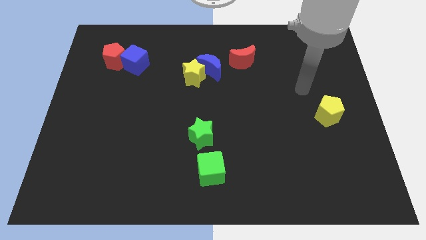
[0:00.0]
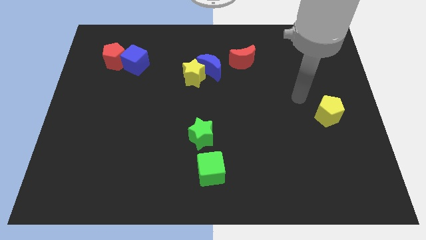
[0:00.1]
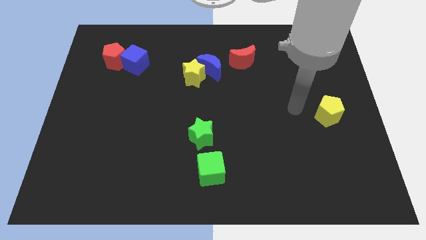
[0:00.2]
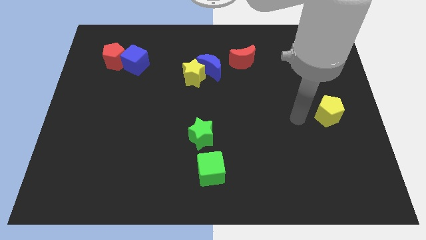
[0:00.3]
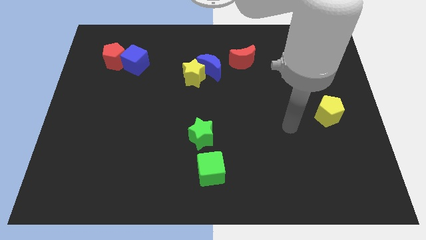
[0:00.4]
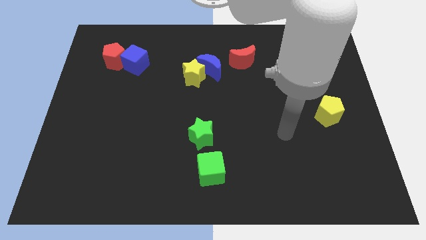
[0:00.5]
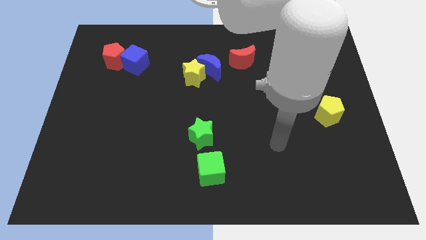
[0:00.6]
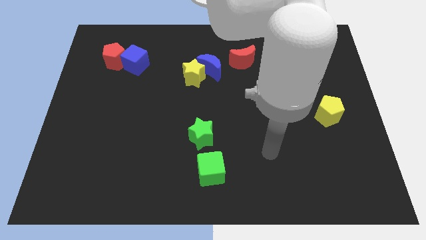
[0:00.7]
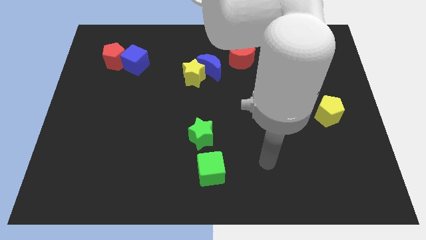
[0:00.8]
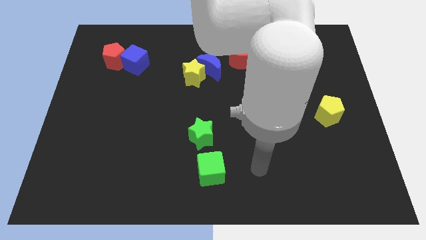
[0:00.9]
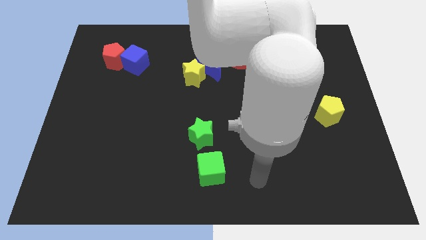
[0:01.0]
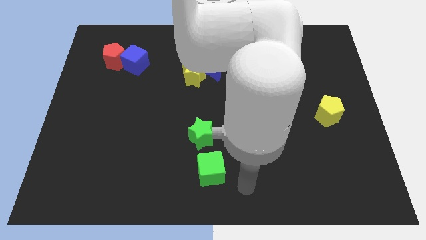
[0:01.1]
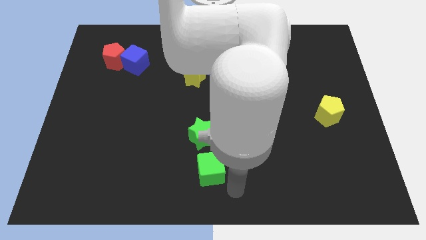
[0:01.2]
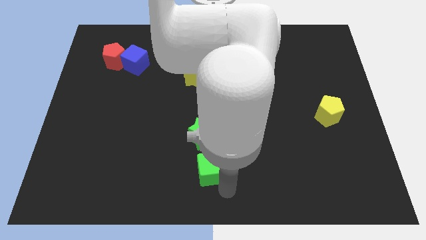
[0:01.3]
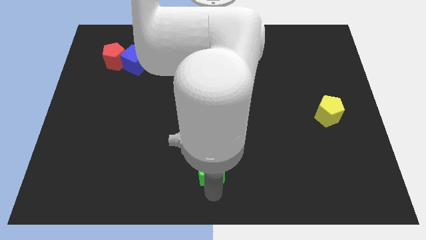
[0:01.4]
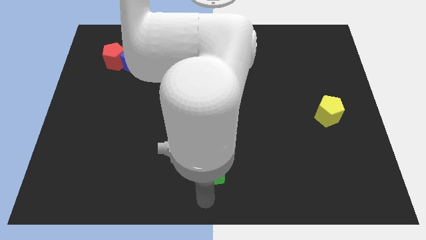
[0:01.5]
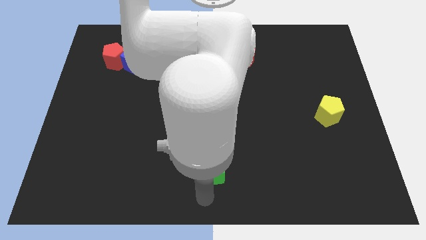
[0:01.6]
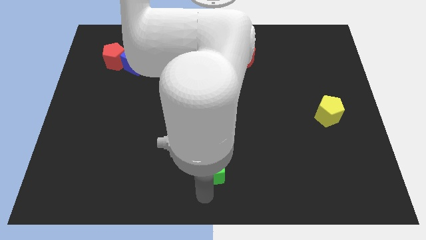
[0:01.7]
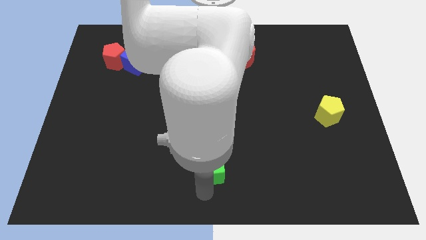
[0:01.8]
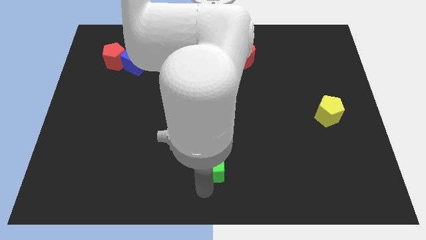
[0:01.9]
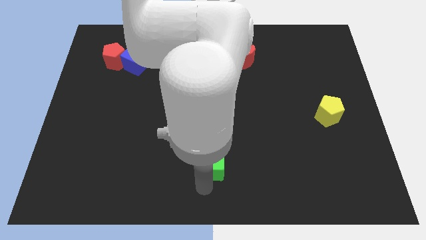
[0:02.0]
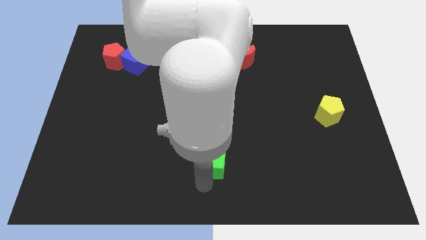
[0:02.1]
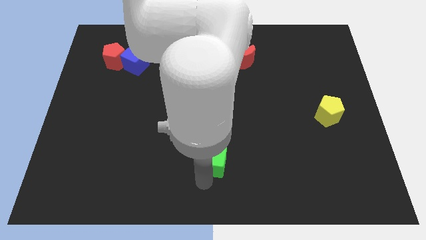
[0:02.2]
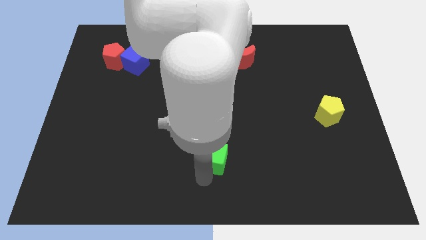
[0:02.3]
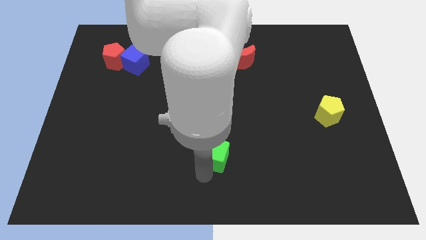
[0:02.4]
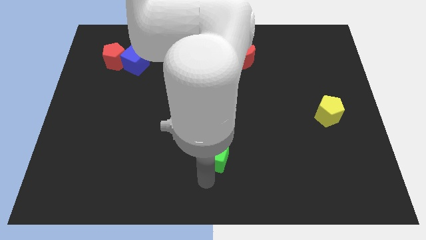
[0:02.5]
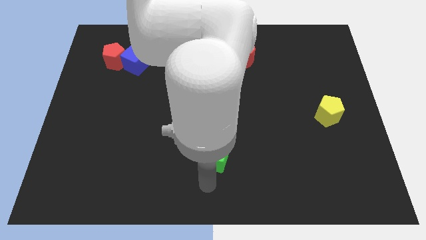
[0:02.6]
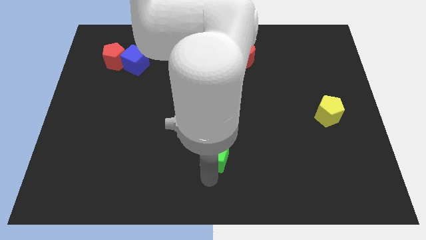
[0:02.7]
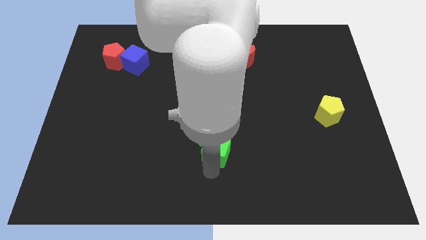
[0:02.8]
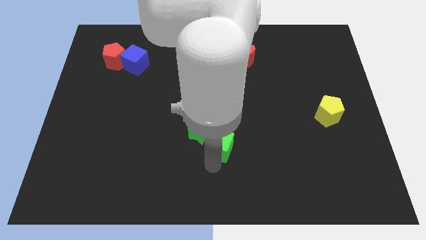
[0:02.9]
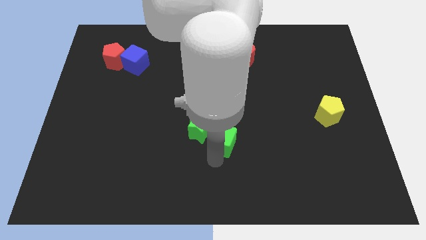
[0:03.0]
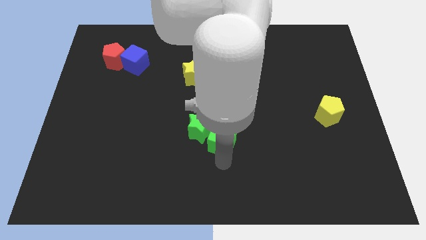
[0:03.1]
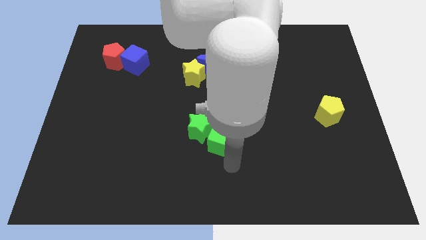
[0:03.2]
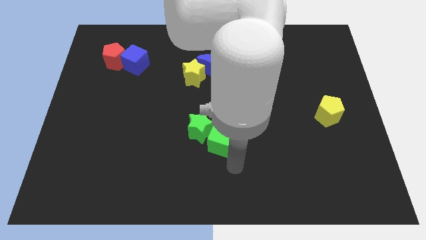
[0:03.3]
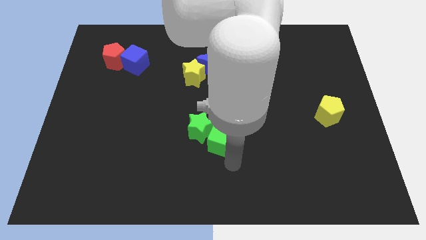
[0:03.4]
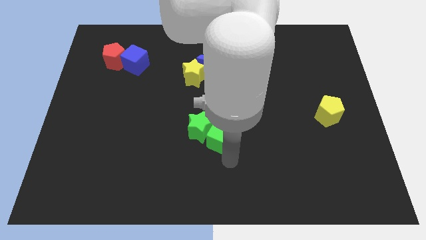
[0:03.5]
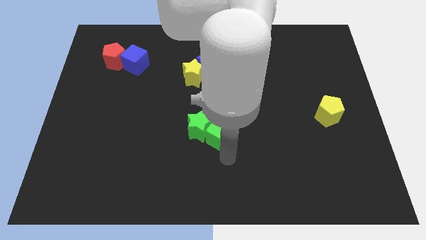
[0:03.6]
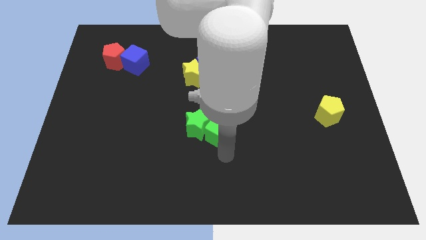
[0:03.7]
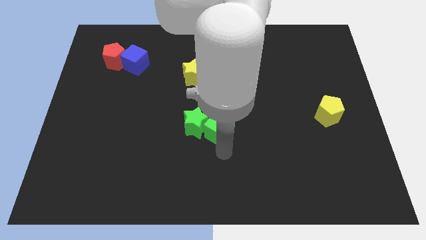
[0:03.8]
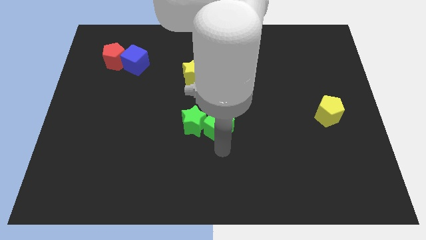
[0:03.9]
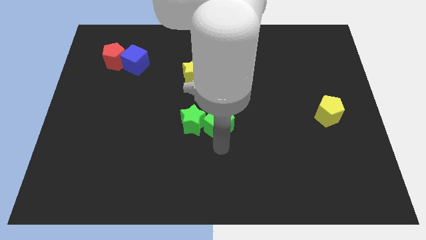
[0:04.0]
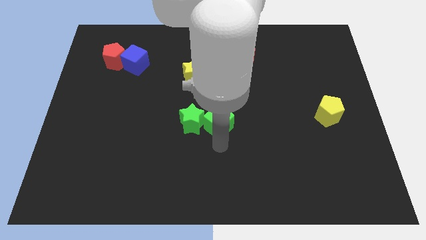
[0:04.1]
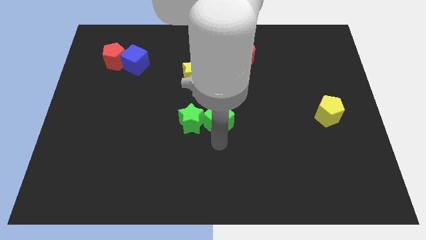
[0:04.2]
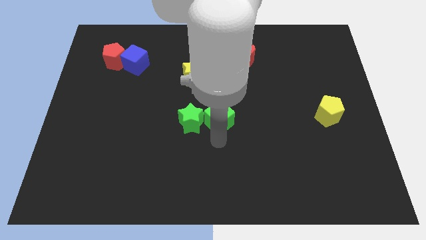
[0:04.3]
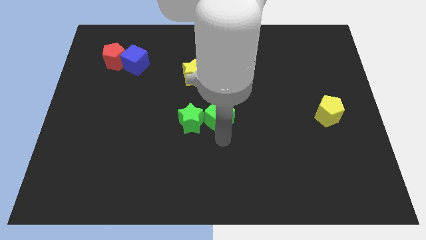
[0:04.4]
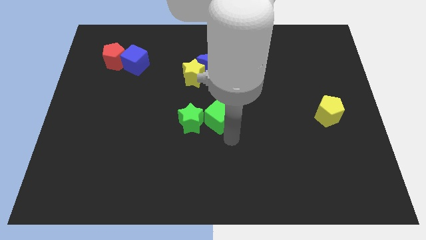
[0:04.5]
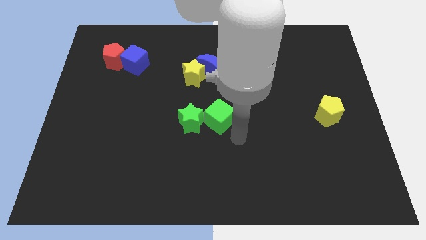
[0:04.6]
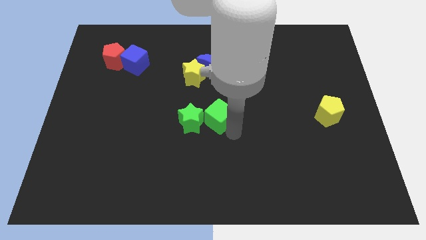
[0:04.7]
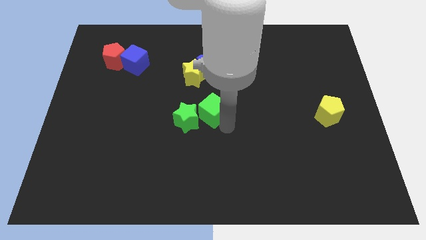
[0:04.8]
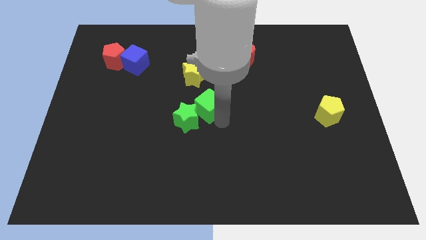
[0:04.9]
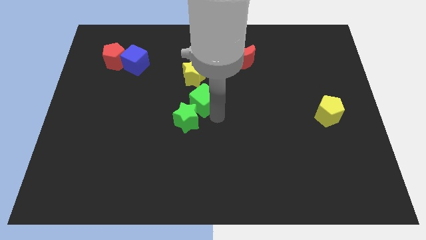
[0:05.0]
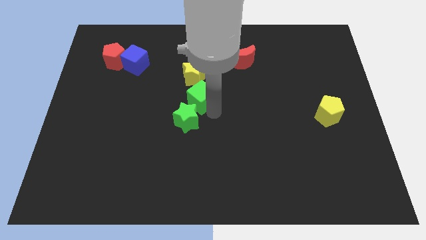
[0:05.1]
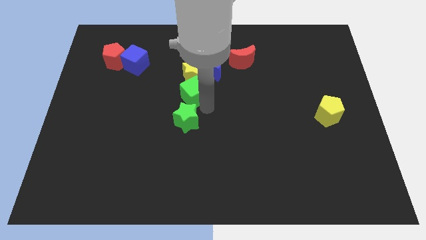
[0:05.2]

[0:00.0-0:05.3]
push the green cube to the yellow star

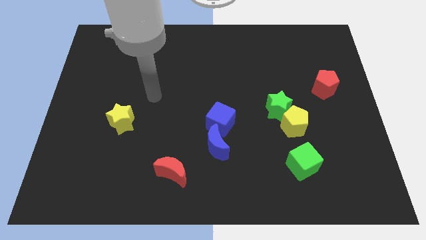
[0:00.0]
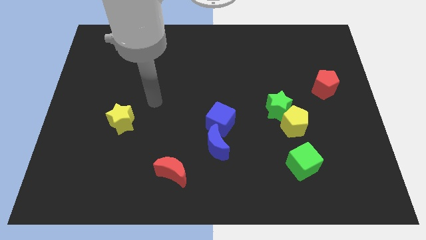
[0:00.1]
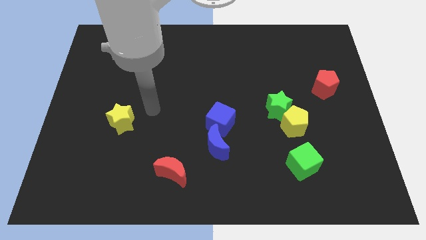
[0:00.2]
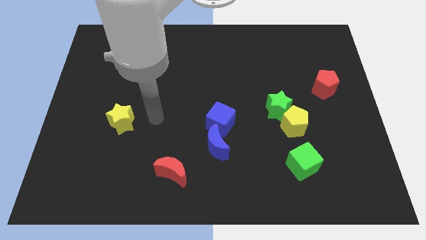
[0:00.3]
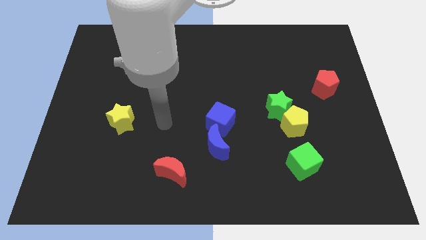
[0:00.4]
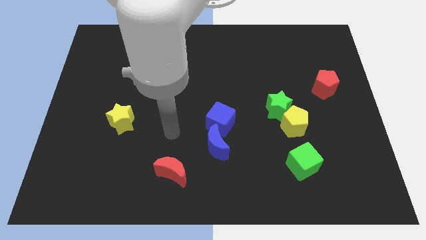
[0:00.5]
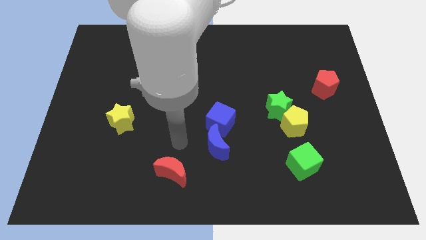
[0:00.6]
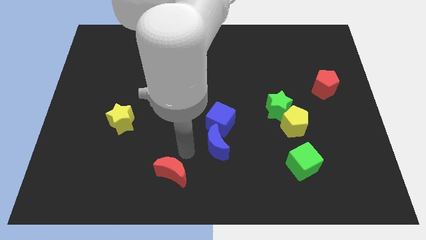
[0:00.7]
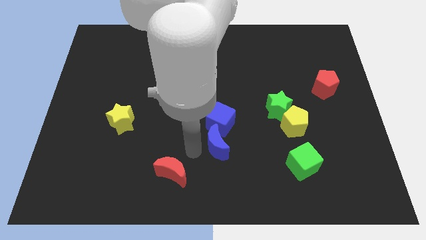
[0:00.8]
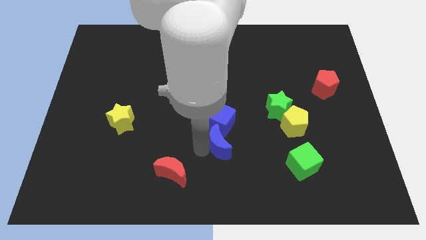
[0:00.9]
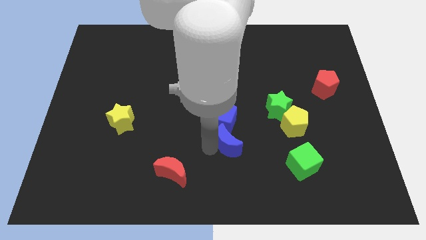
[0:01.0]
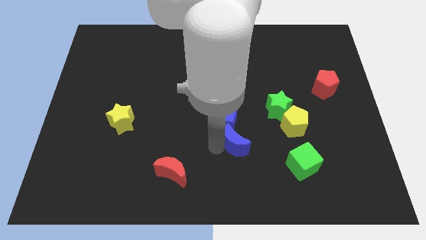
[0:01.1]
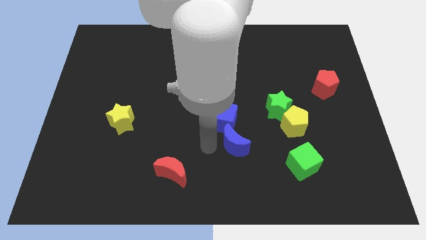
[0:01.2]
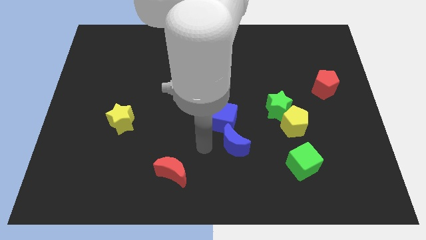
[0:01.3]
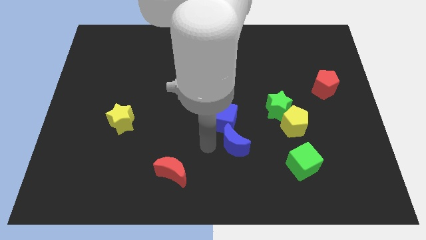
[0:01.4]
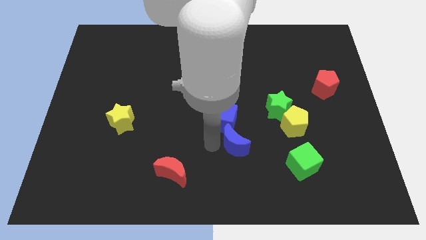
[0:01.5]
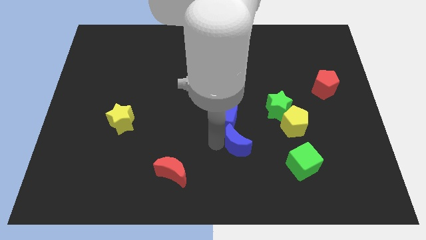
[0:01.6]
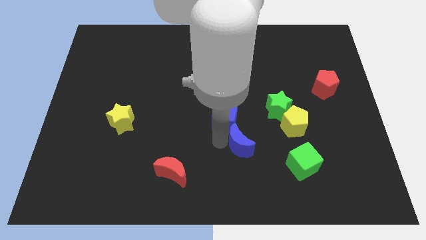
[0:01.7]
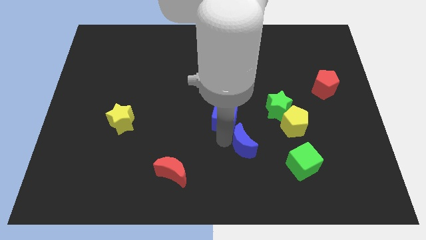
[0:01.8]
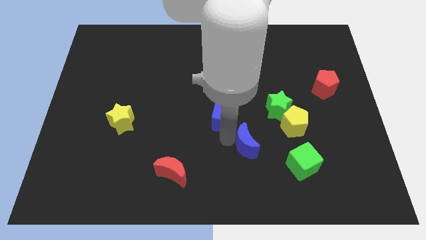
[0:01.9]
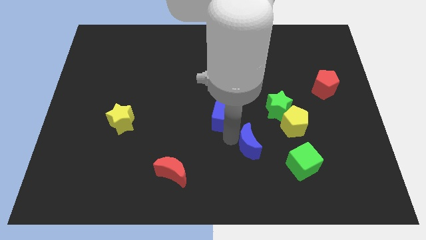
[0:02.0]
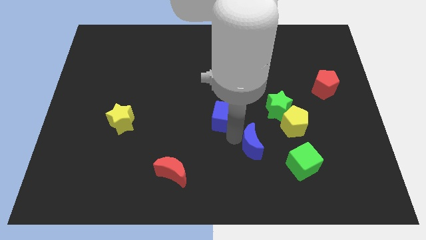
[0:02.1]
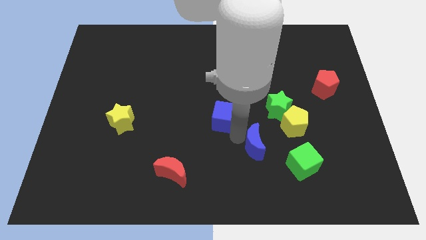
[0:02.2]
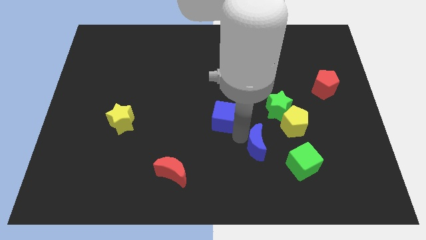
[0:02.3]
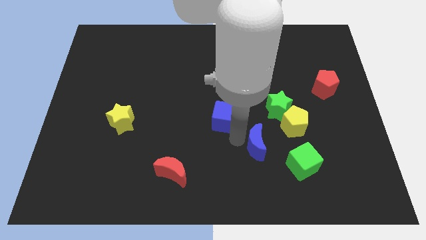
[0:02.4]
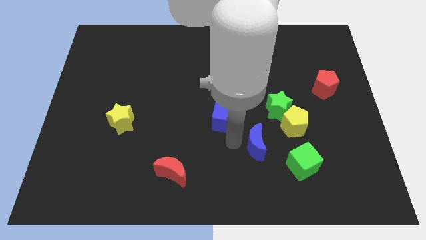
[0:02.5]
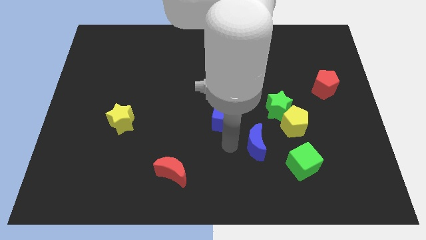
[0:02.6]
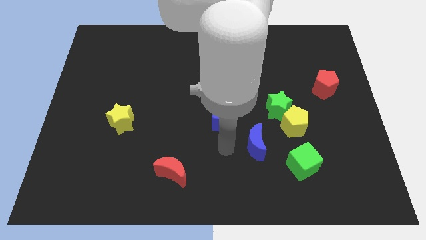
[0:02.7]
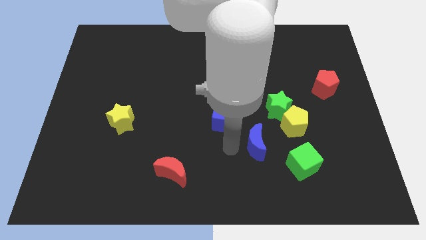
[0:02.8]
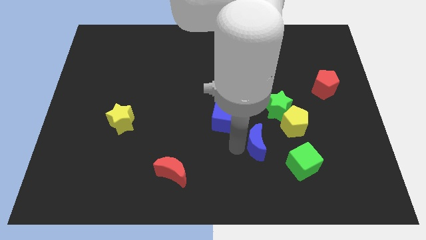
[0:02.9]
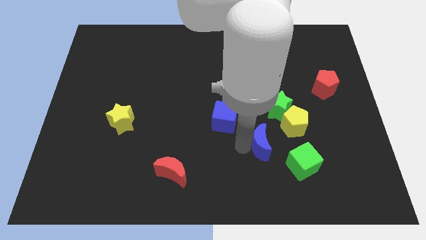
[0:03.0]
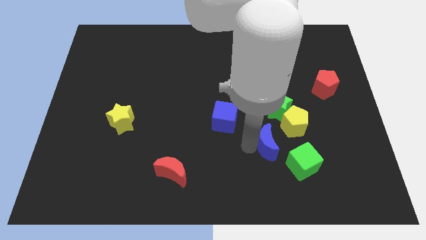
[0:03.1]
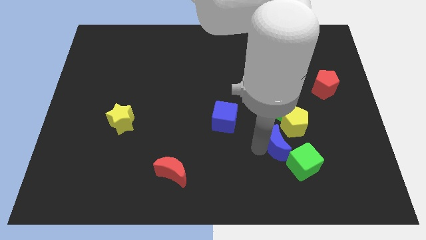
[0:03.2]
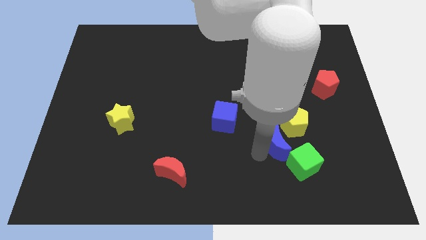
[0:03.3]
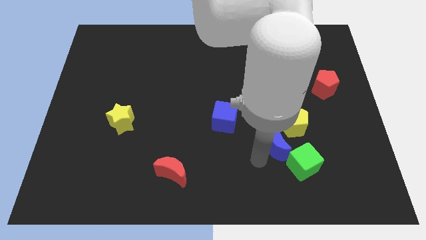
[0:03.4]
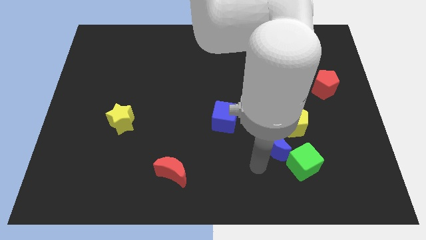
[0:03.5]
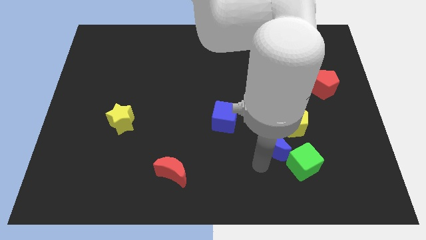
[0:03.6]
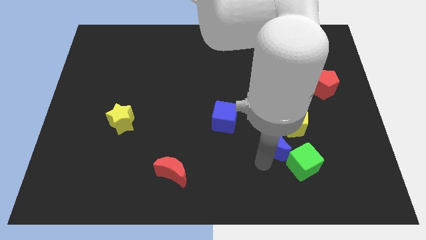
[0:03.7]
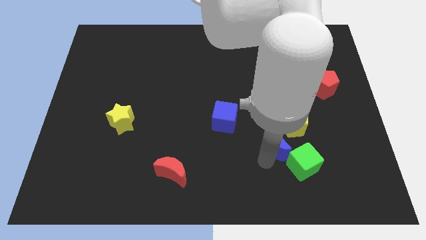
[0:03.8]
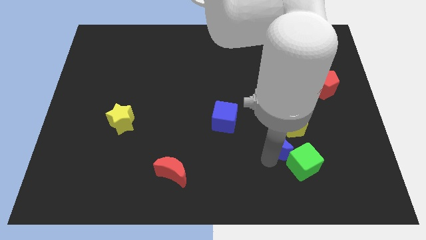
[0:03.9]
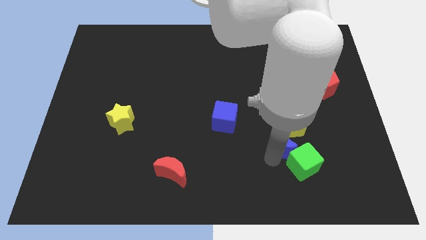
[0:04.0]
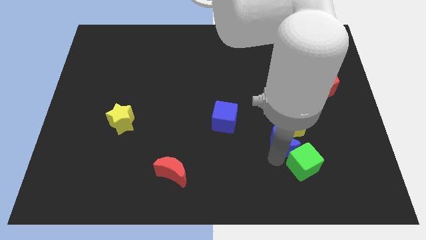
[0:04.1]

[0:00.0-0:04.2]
move the blue moon towards the yellow pentagon
